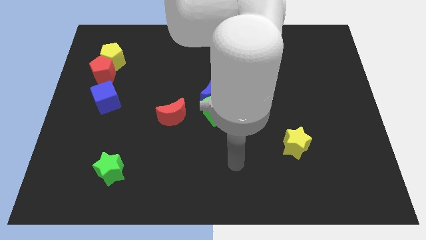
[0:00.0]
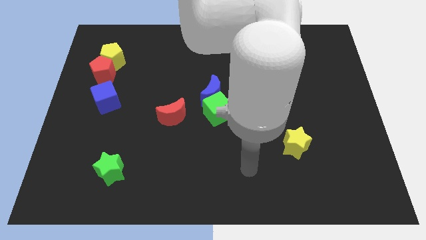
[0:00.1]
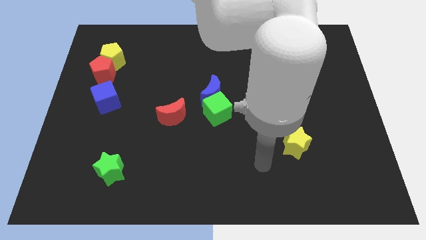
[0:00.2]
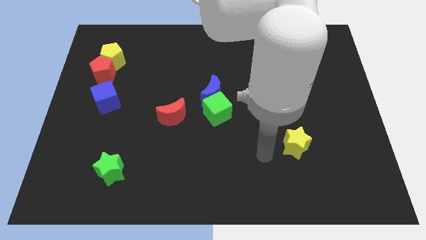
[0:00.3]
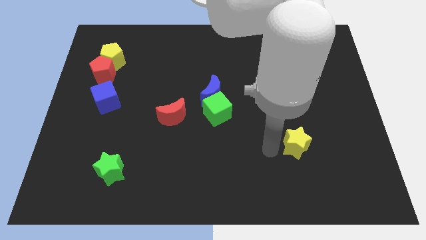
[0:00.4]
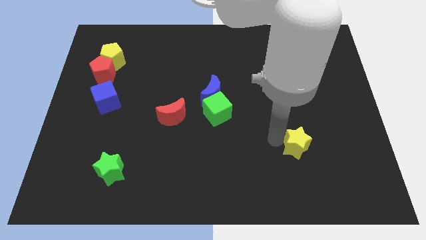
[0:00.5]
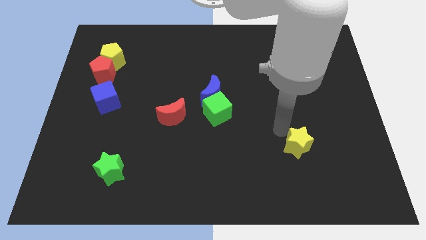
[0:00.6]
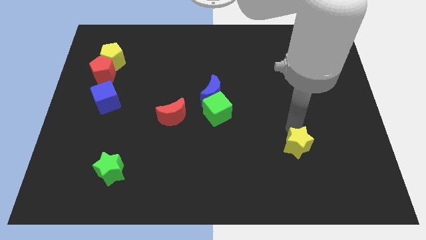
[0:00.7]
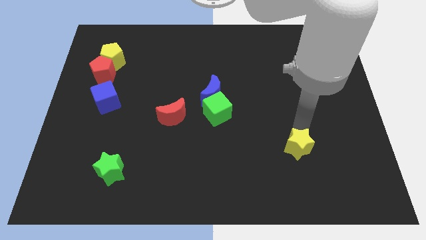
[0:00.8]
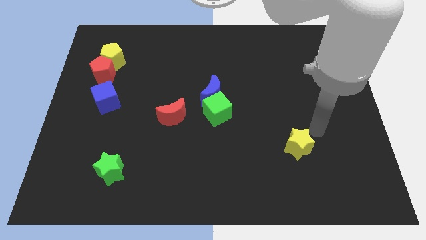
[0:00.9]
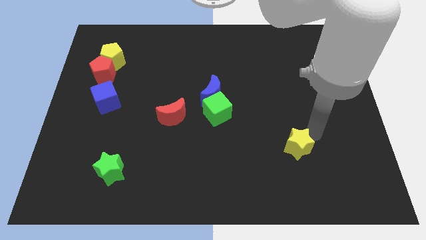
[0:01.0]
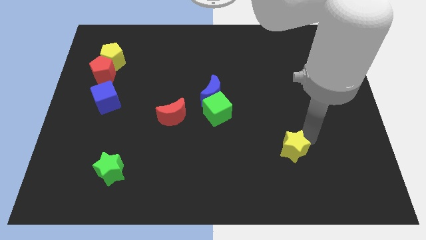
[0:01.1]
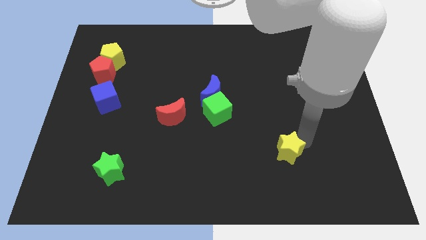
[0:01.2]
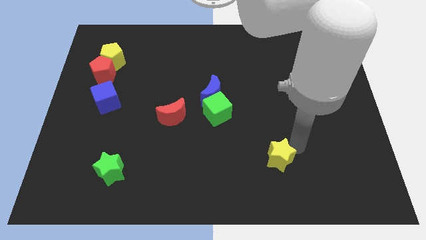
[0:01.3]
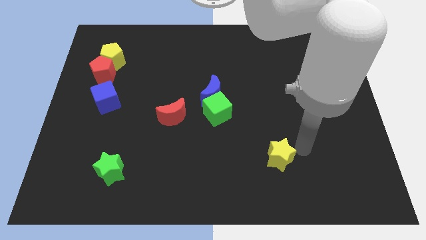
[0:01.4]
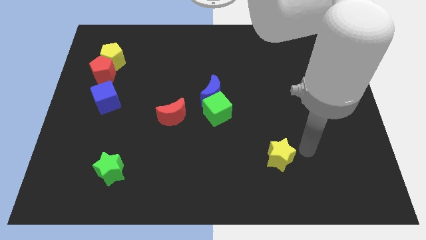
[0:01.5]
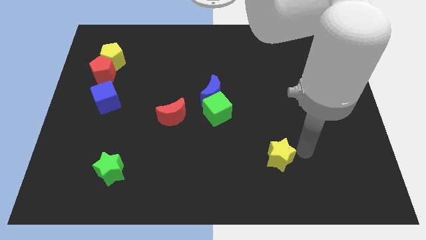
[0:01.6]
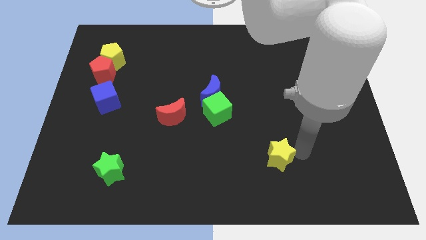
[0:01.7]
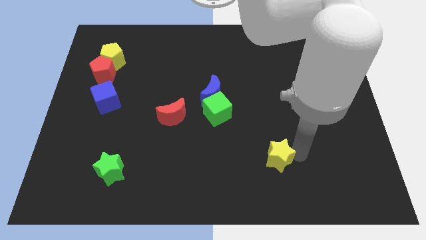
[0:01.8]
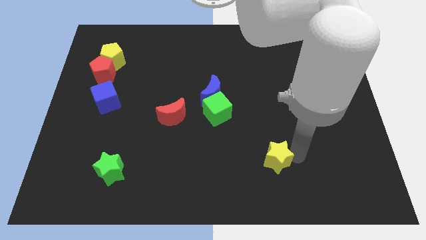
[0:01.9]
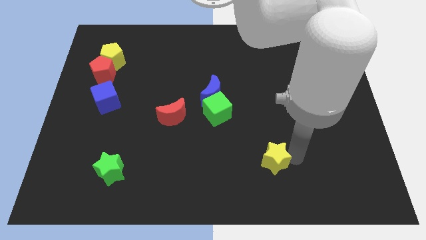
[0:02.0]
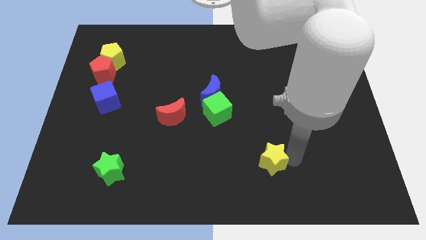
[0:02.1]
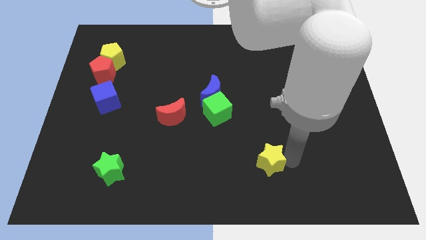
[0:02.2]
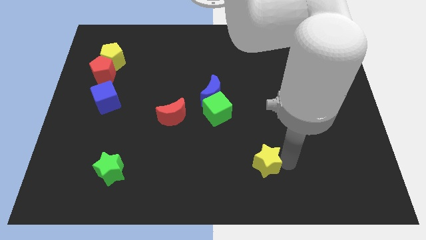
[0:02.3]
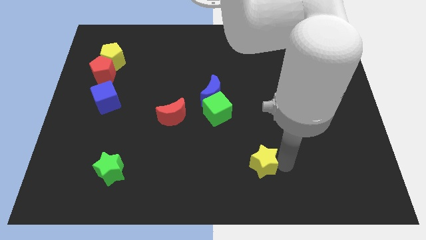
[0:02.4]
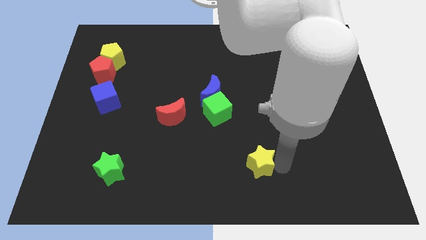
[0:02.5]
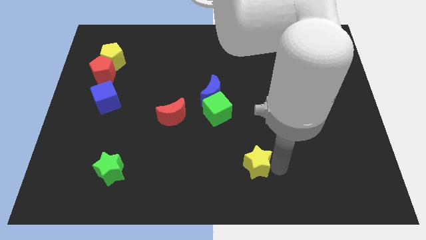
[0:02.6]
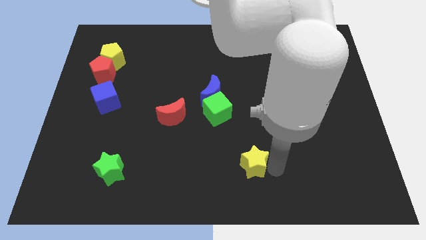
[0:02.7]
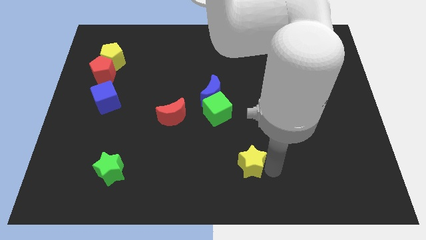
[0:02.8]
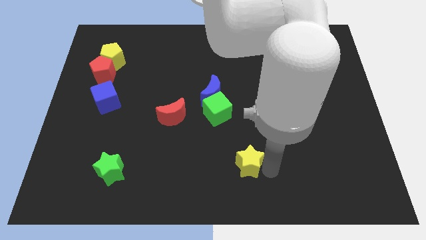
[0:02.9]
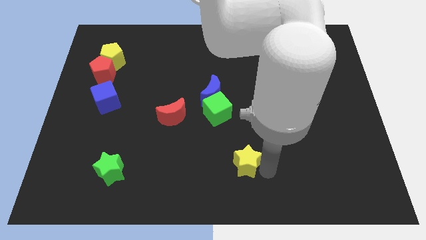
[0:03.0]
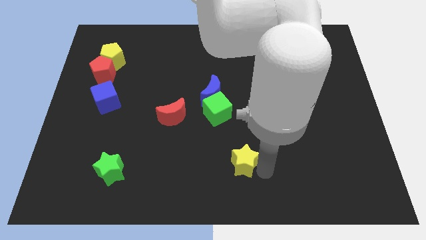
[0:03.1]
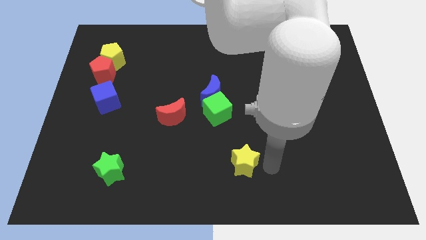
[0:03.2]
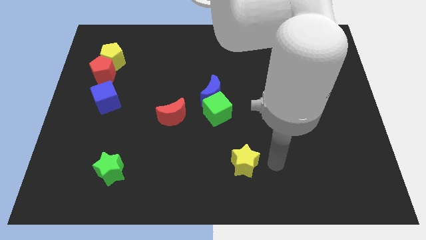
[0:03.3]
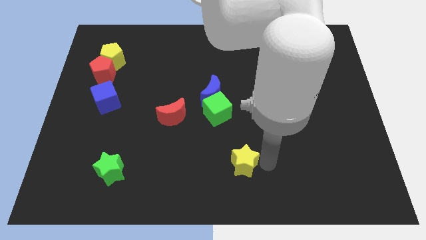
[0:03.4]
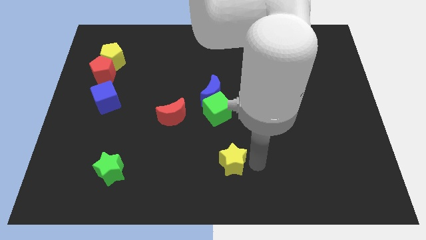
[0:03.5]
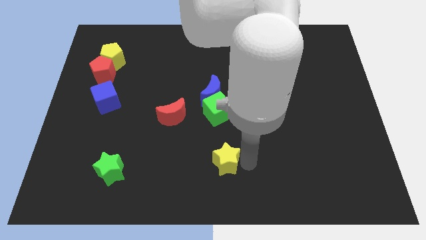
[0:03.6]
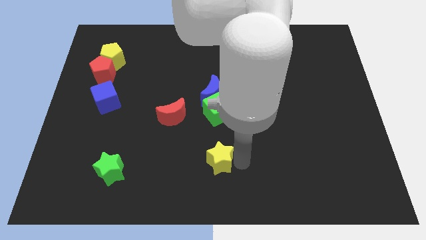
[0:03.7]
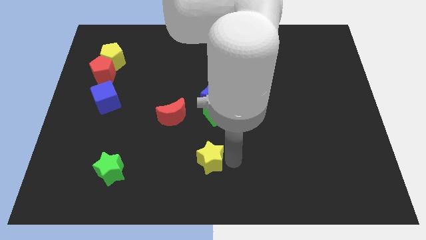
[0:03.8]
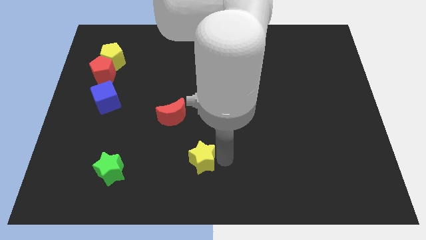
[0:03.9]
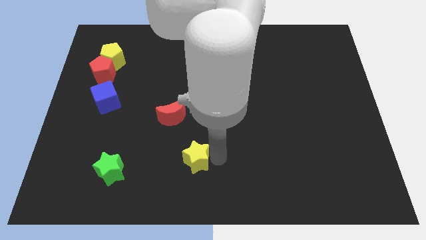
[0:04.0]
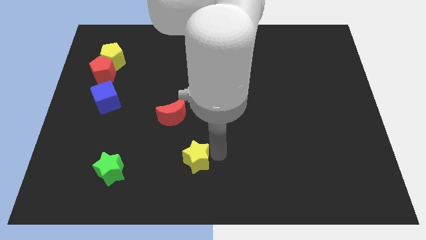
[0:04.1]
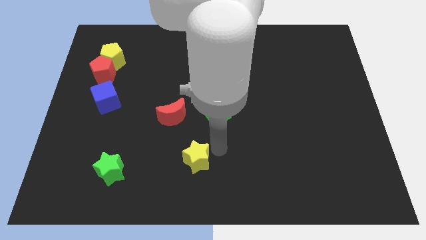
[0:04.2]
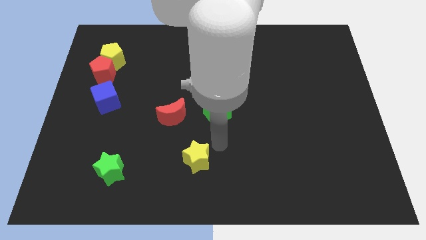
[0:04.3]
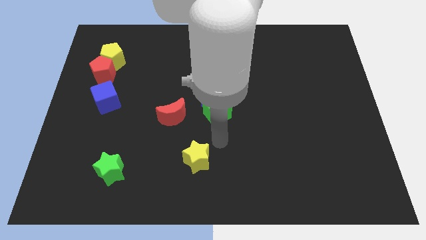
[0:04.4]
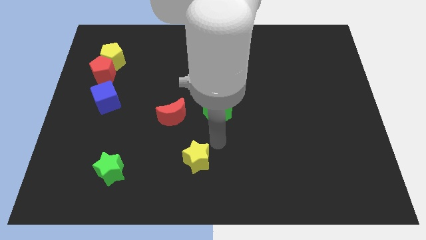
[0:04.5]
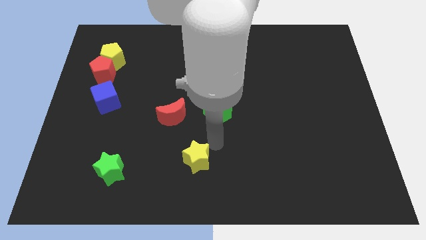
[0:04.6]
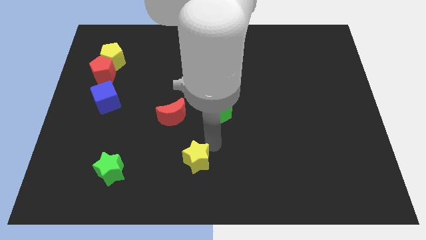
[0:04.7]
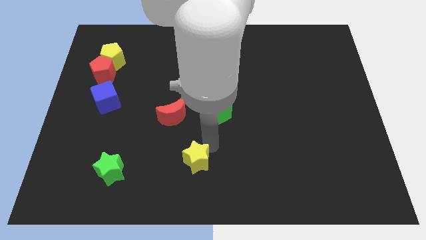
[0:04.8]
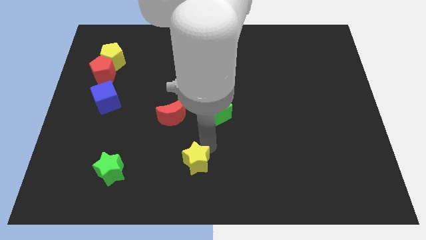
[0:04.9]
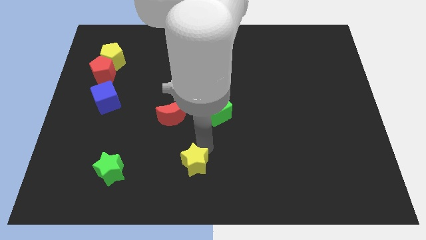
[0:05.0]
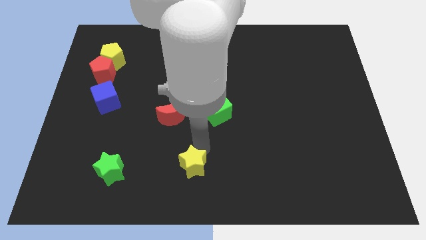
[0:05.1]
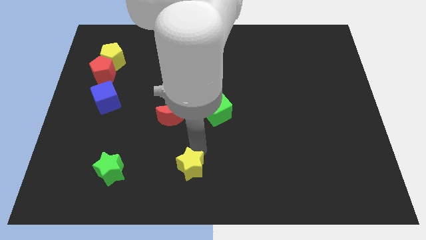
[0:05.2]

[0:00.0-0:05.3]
push the yellow star just right of the green star

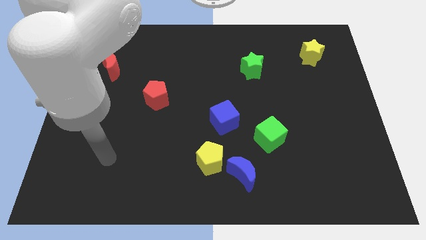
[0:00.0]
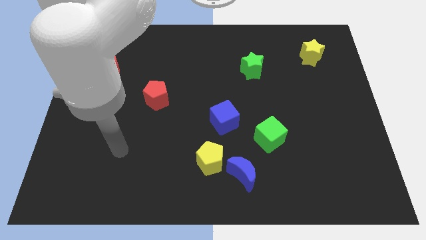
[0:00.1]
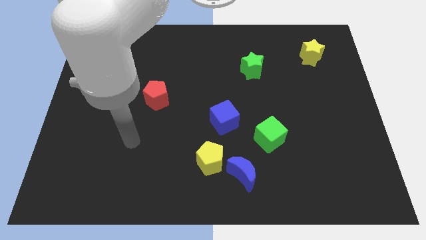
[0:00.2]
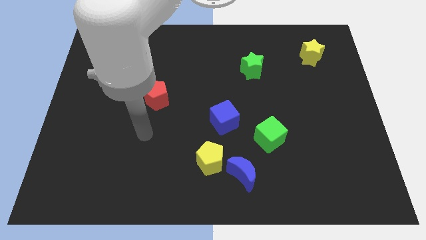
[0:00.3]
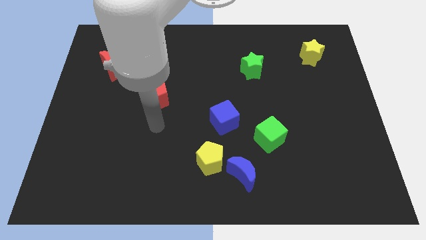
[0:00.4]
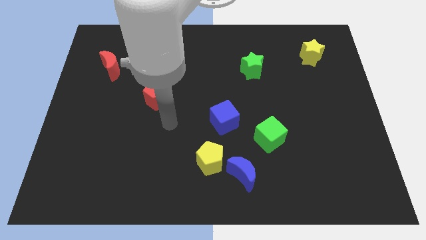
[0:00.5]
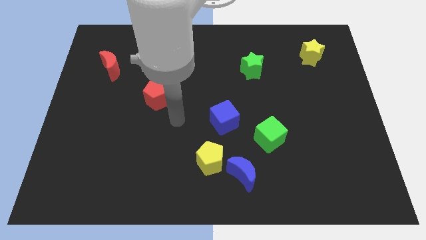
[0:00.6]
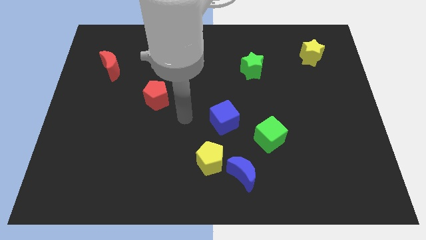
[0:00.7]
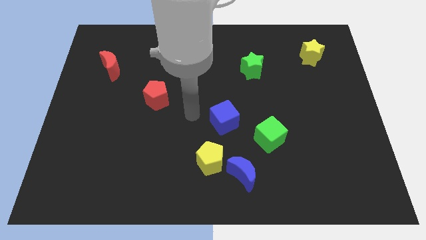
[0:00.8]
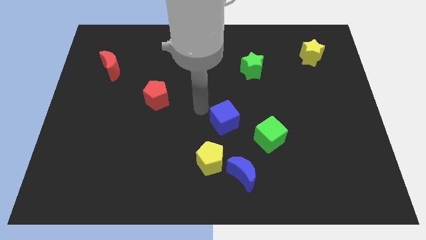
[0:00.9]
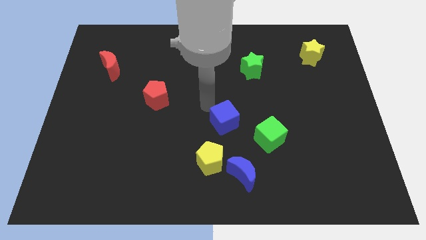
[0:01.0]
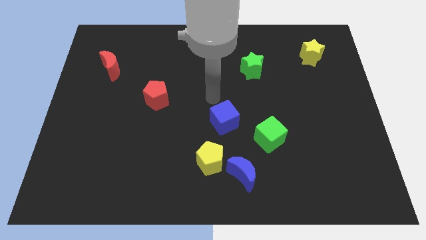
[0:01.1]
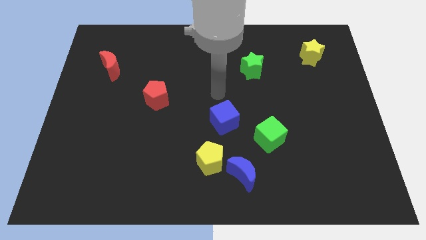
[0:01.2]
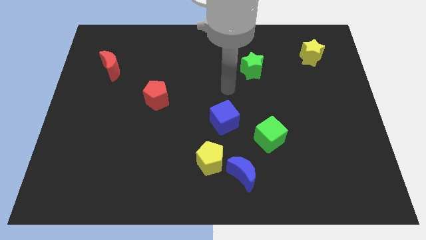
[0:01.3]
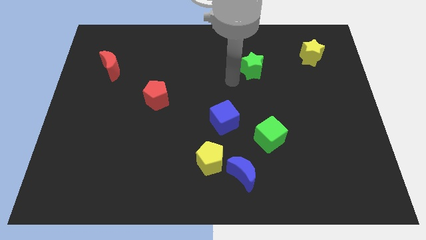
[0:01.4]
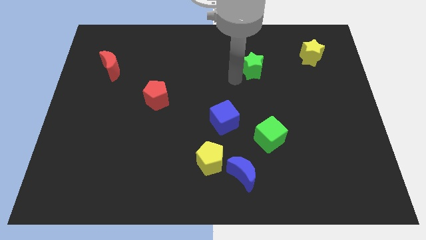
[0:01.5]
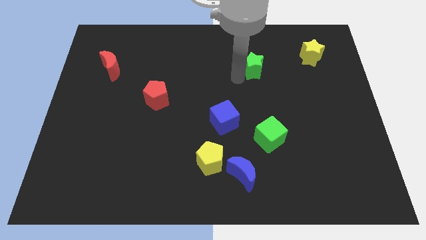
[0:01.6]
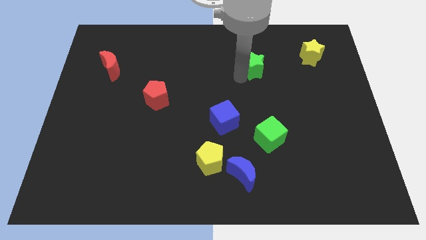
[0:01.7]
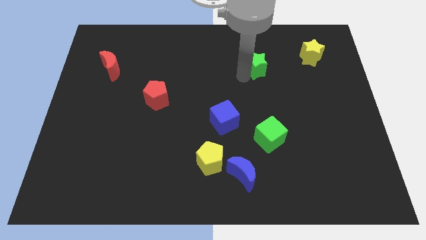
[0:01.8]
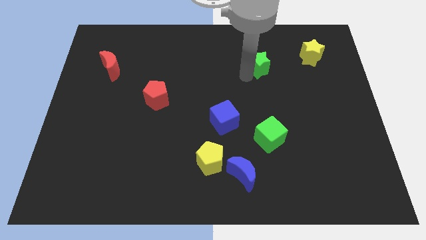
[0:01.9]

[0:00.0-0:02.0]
move the green star just left of the yellow star
